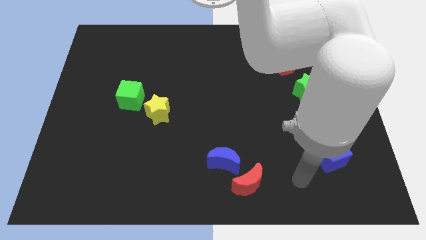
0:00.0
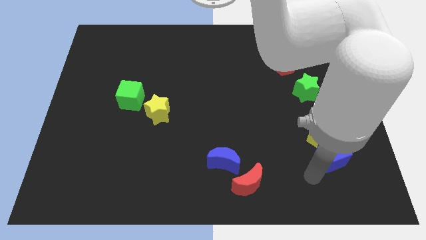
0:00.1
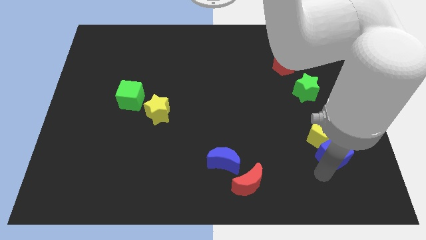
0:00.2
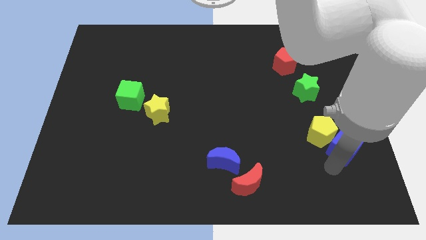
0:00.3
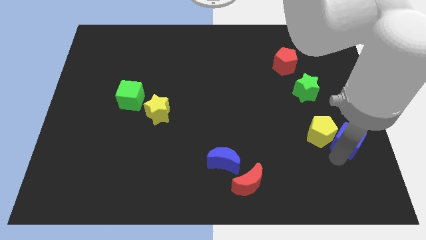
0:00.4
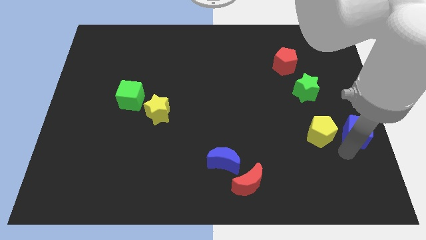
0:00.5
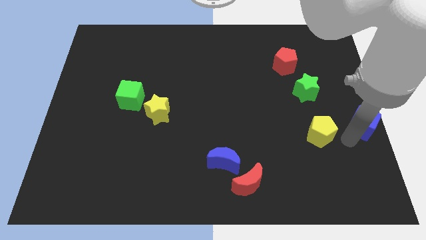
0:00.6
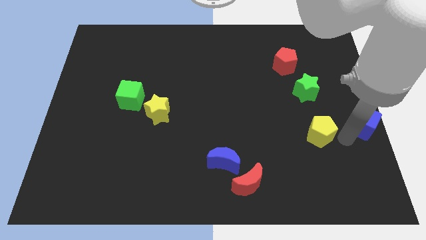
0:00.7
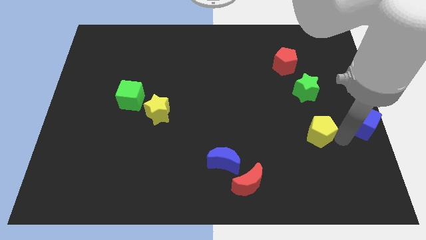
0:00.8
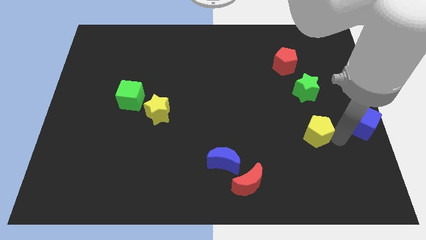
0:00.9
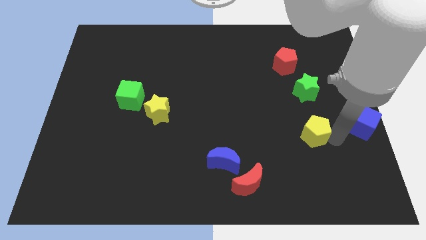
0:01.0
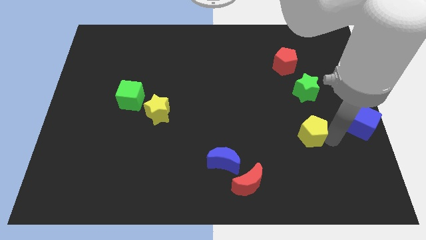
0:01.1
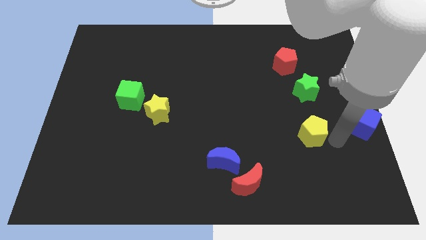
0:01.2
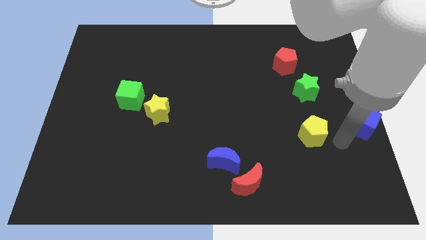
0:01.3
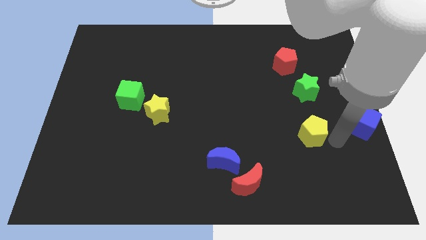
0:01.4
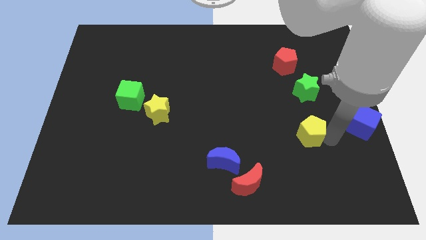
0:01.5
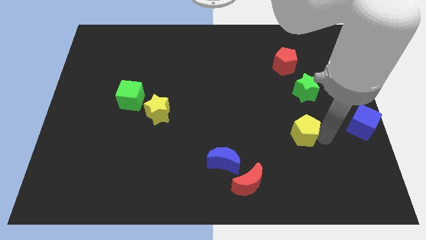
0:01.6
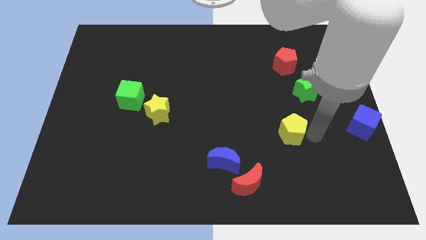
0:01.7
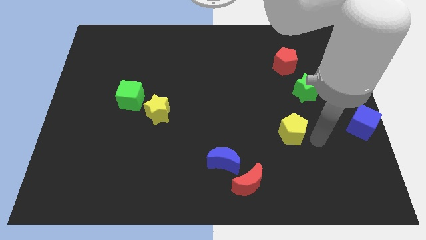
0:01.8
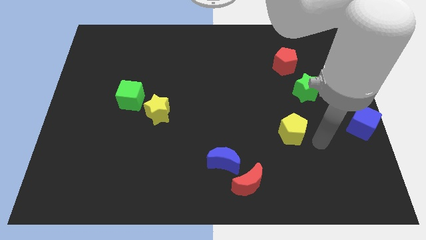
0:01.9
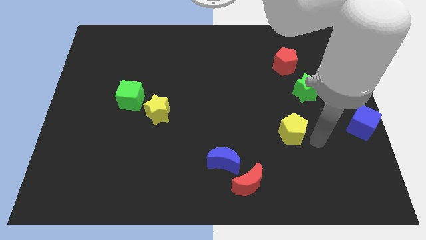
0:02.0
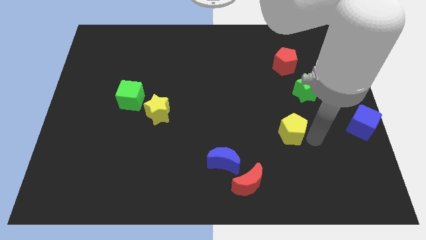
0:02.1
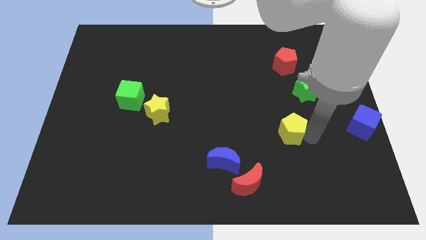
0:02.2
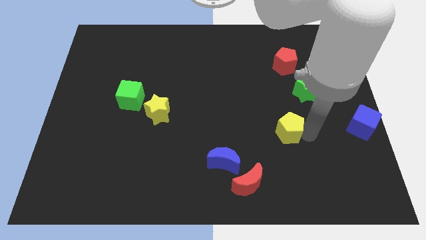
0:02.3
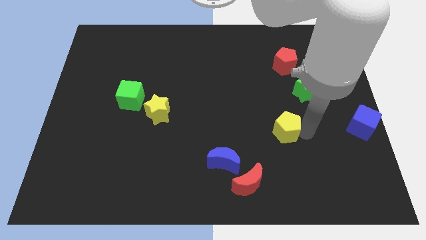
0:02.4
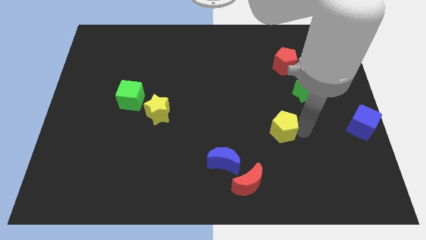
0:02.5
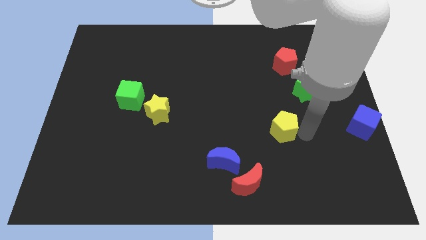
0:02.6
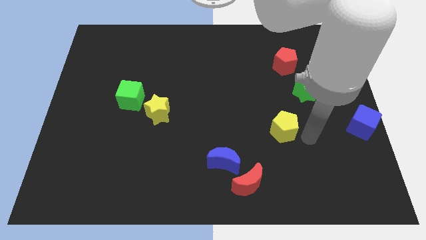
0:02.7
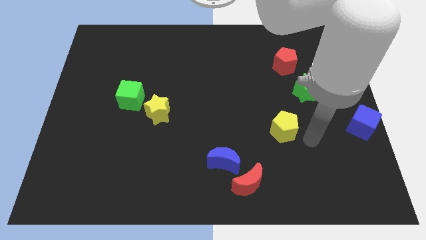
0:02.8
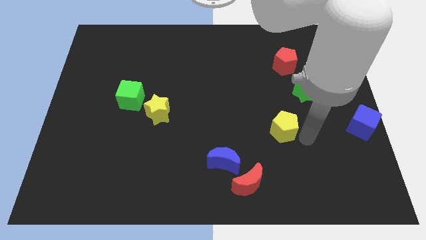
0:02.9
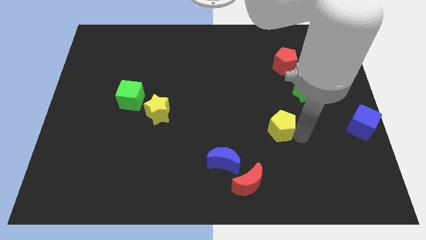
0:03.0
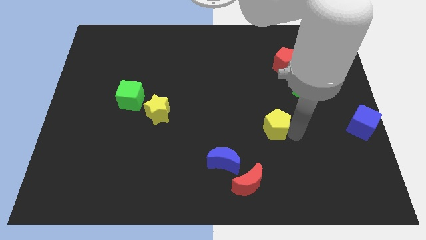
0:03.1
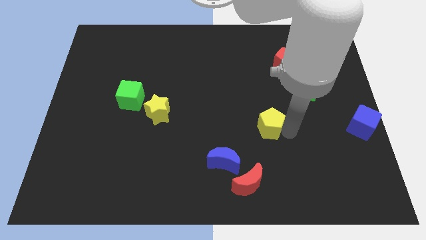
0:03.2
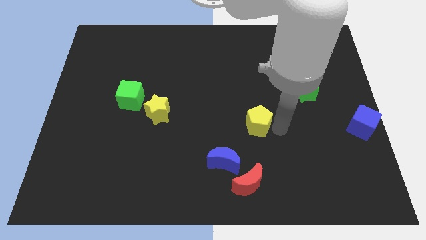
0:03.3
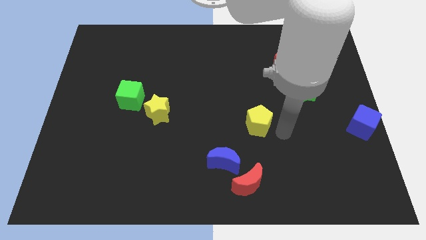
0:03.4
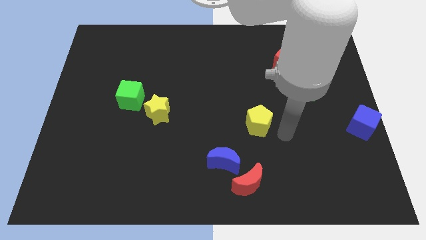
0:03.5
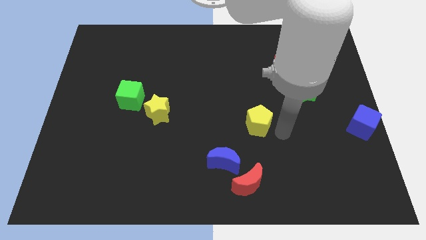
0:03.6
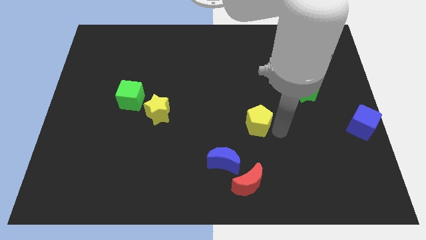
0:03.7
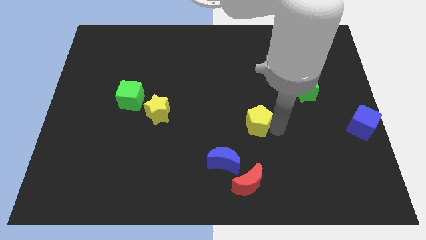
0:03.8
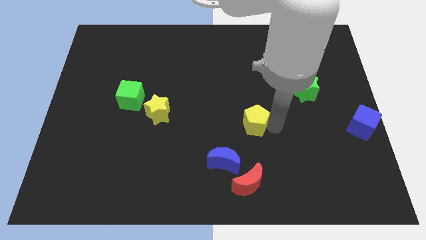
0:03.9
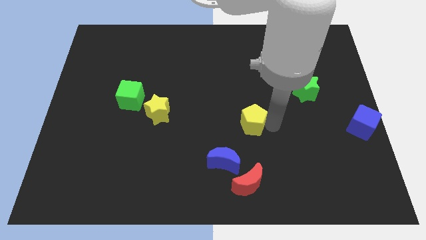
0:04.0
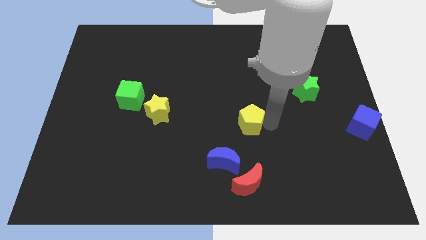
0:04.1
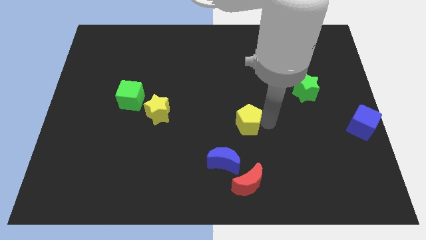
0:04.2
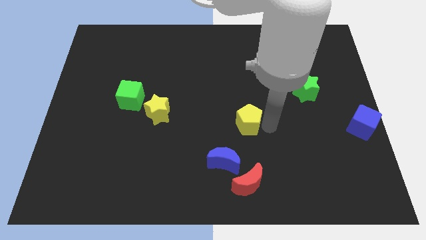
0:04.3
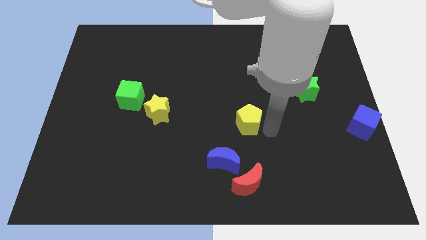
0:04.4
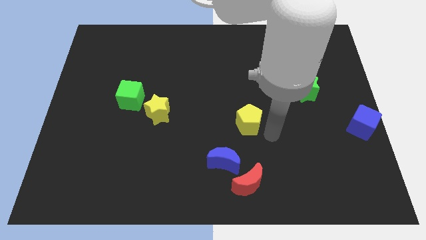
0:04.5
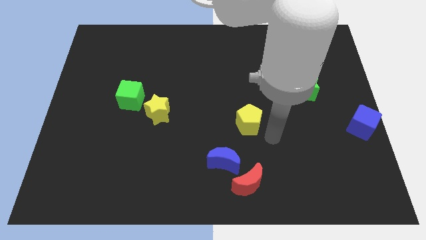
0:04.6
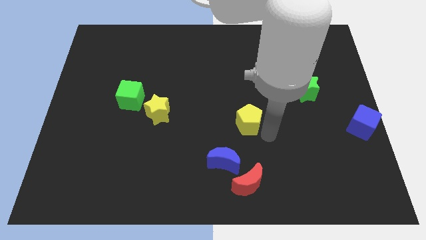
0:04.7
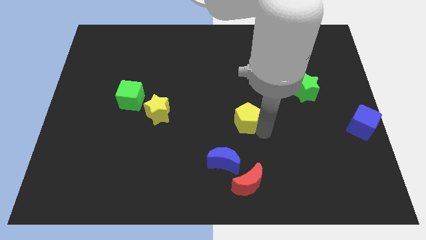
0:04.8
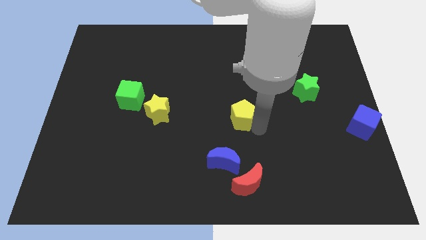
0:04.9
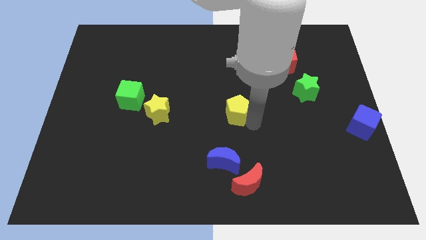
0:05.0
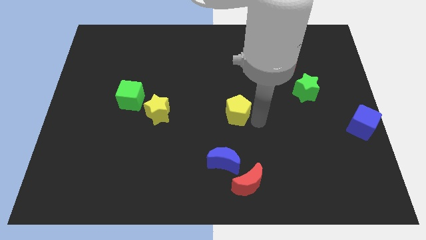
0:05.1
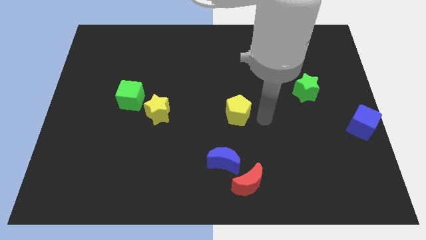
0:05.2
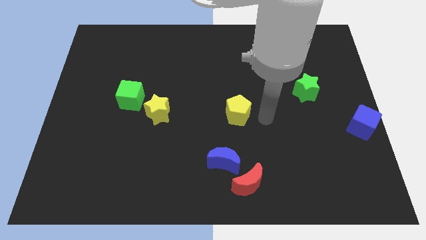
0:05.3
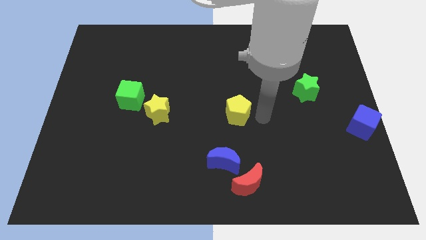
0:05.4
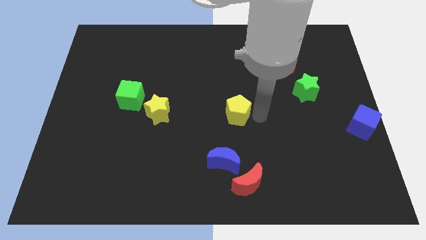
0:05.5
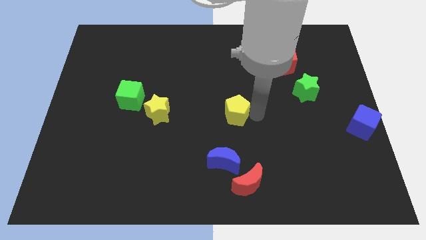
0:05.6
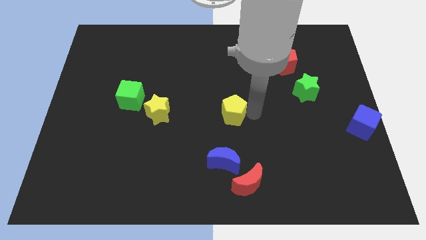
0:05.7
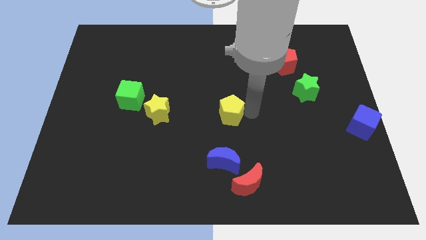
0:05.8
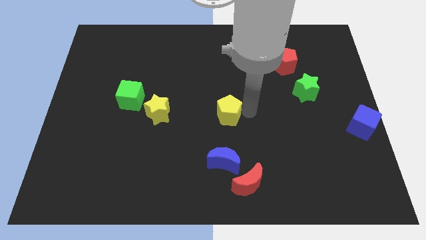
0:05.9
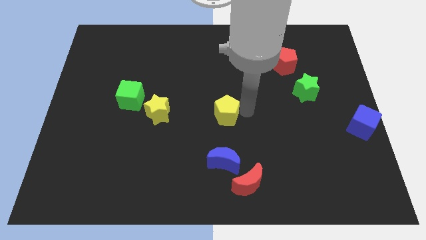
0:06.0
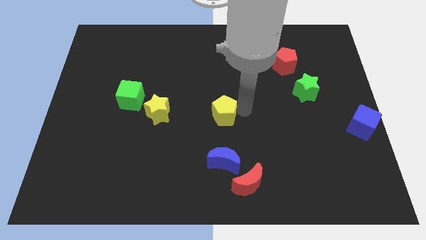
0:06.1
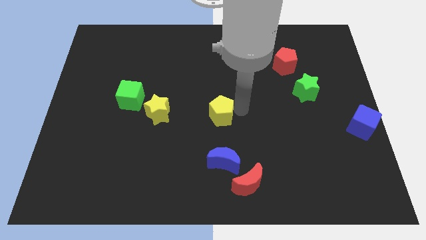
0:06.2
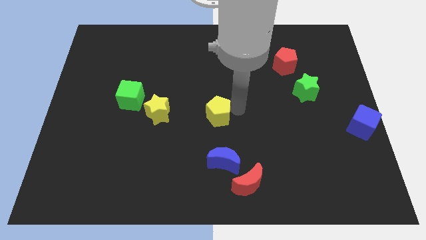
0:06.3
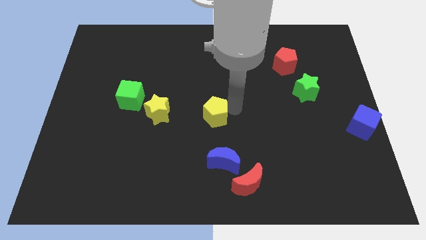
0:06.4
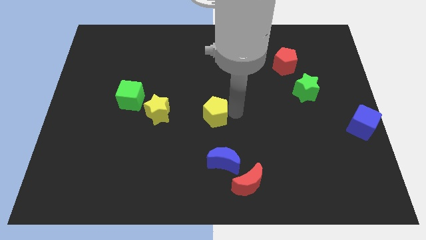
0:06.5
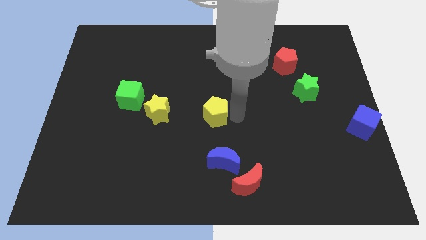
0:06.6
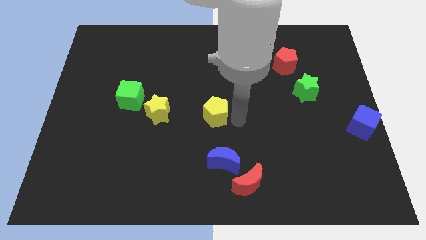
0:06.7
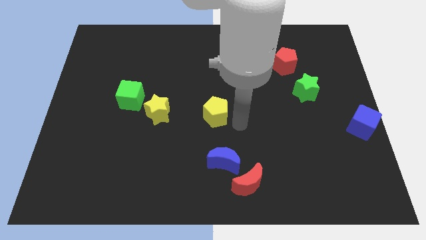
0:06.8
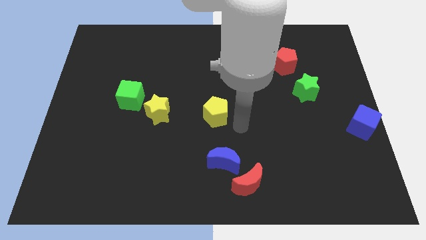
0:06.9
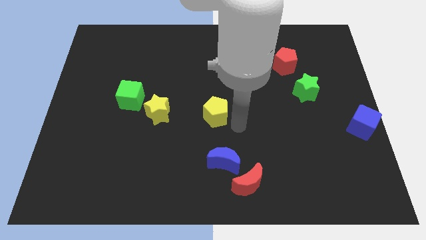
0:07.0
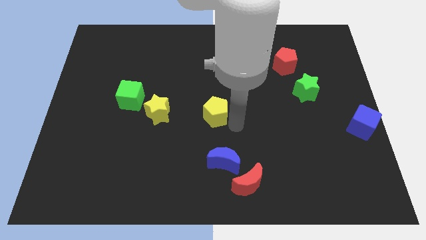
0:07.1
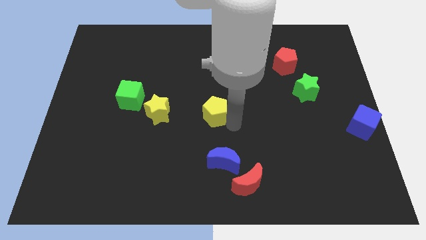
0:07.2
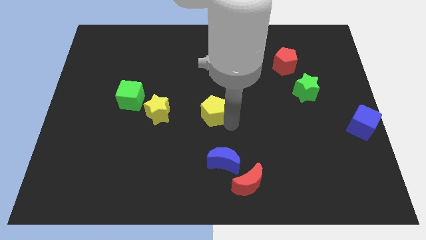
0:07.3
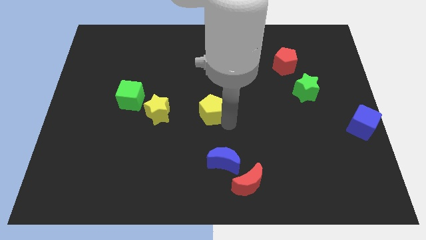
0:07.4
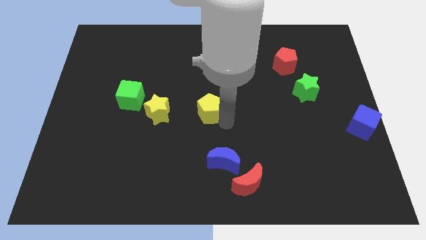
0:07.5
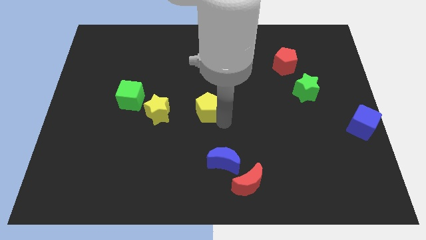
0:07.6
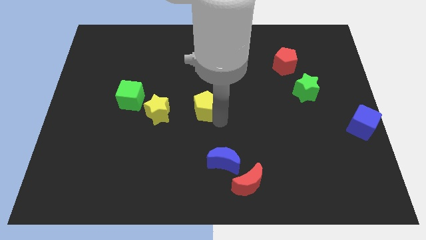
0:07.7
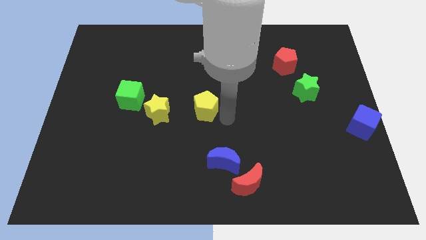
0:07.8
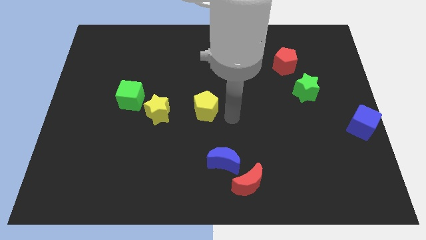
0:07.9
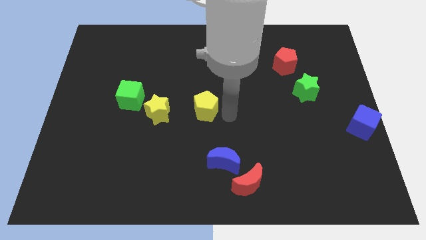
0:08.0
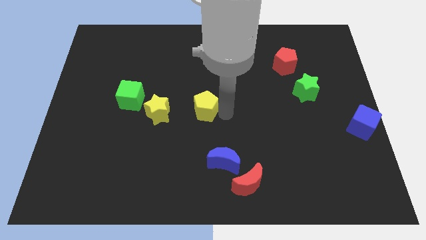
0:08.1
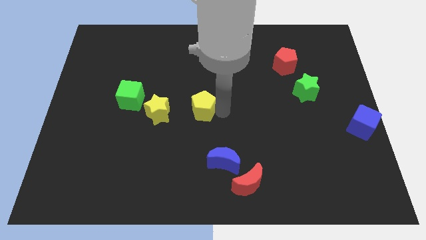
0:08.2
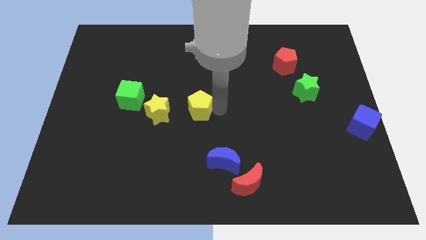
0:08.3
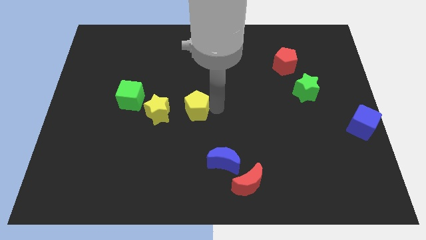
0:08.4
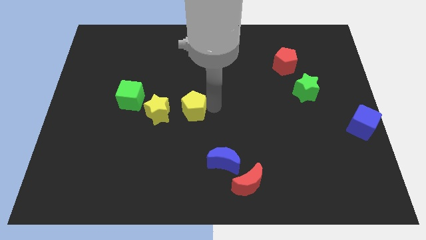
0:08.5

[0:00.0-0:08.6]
put the yellow pentagon right of the green cube
